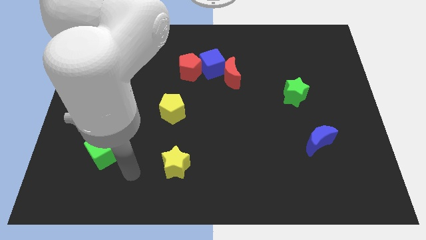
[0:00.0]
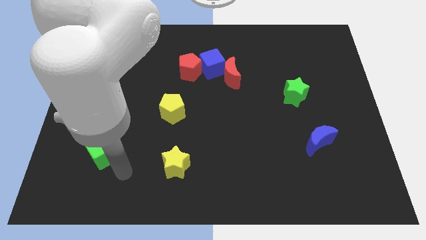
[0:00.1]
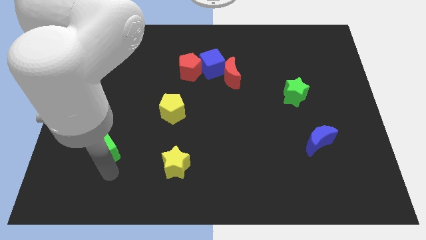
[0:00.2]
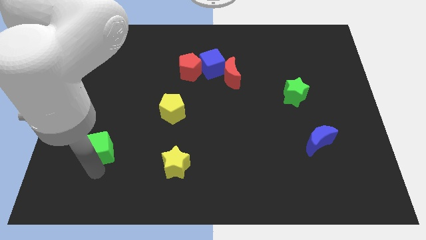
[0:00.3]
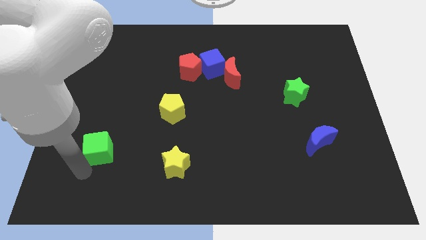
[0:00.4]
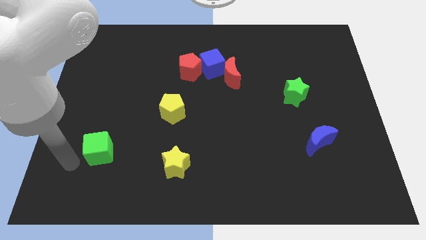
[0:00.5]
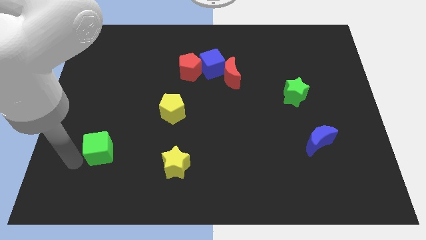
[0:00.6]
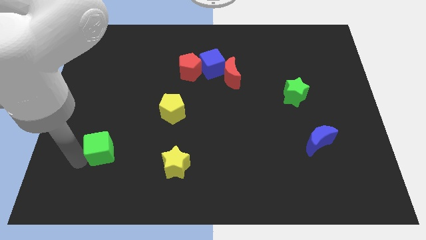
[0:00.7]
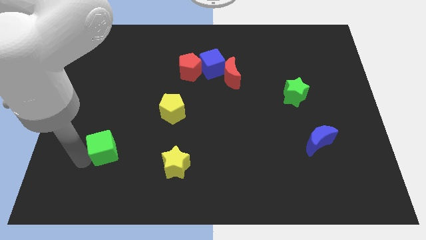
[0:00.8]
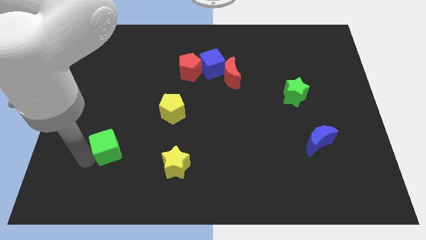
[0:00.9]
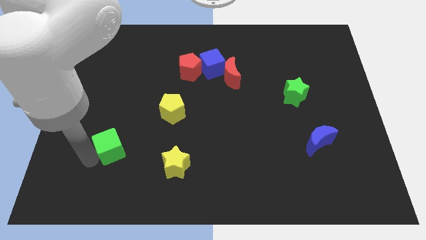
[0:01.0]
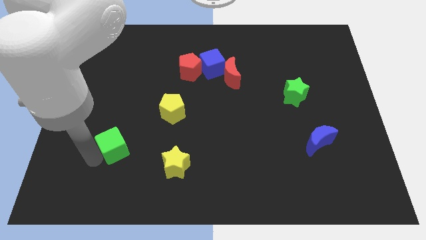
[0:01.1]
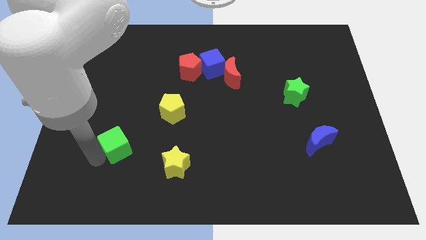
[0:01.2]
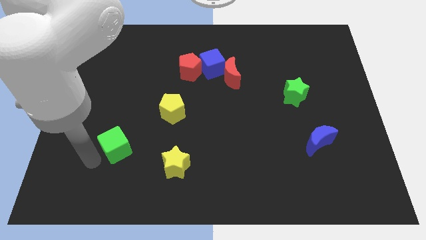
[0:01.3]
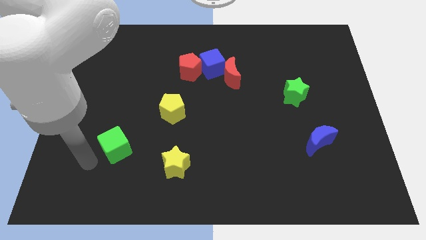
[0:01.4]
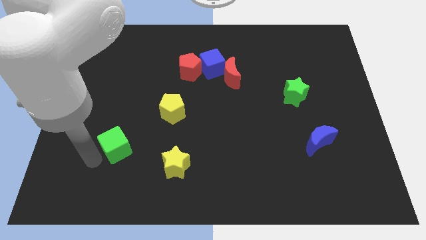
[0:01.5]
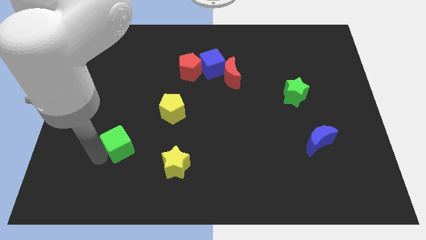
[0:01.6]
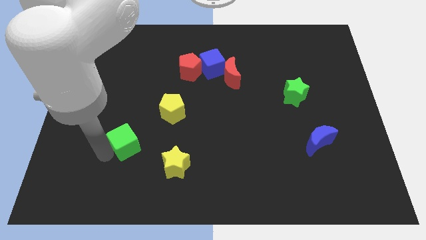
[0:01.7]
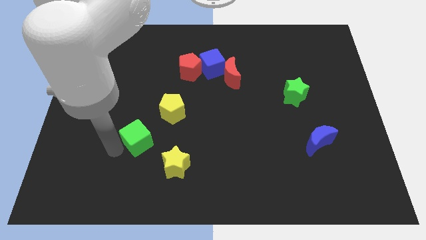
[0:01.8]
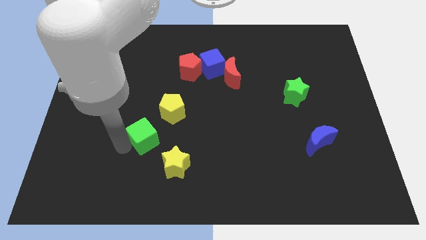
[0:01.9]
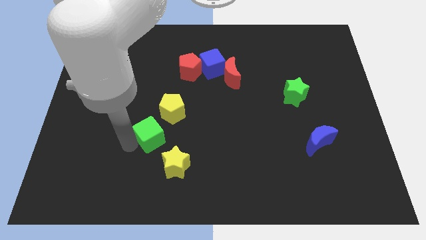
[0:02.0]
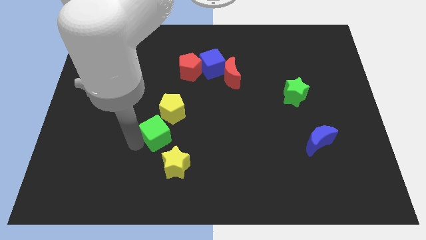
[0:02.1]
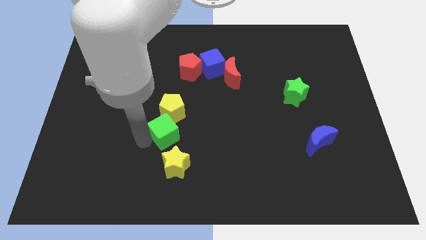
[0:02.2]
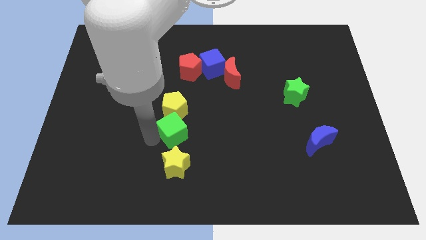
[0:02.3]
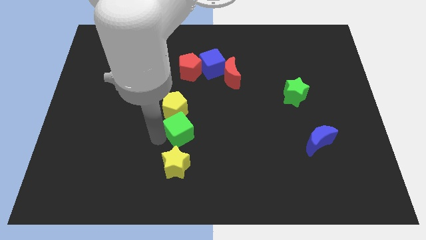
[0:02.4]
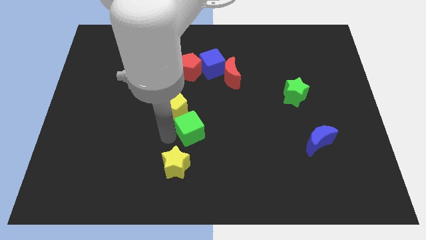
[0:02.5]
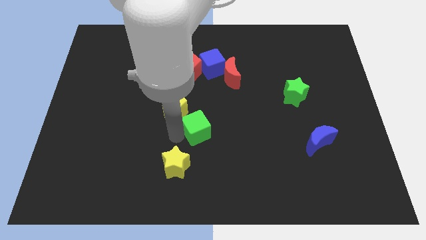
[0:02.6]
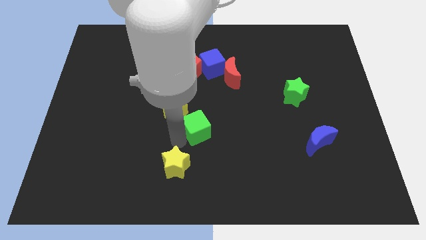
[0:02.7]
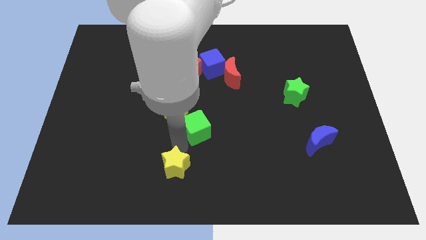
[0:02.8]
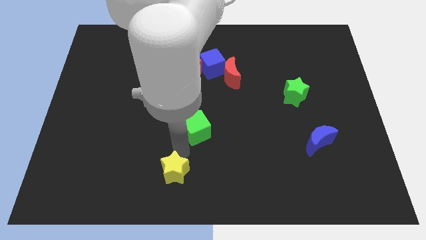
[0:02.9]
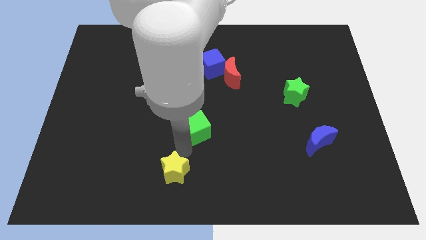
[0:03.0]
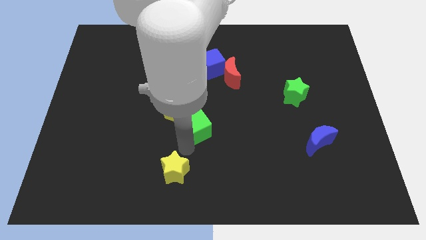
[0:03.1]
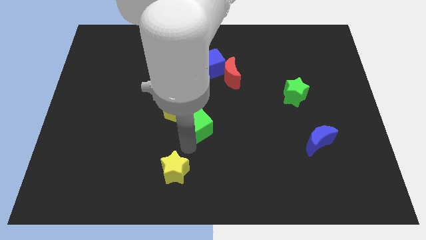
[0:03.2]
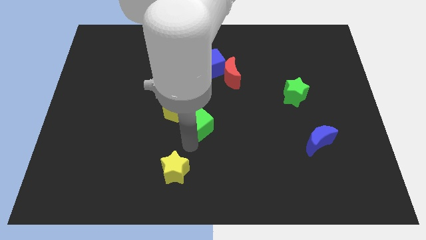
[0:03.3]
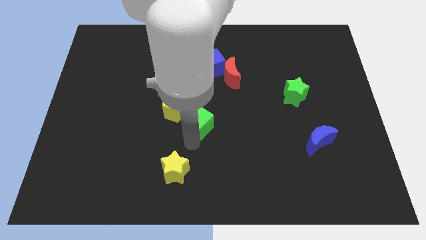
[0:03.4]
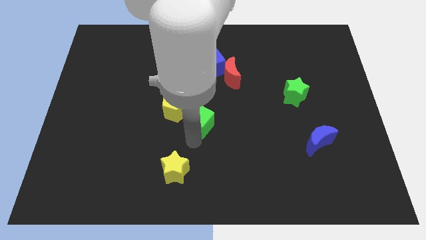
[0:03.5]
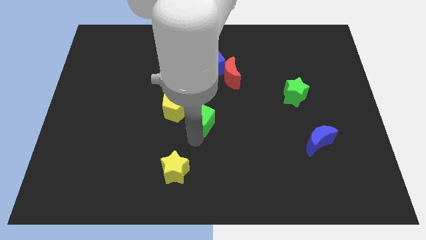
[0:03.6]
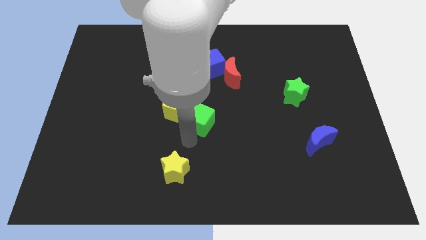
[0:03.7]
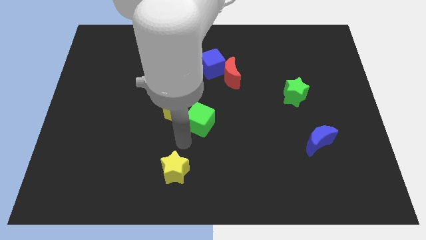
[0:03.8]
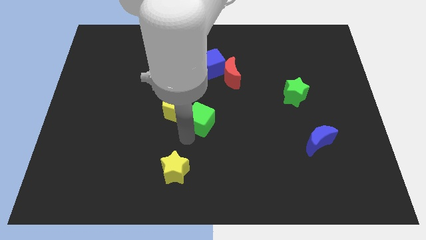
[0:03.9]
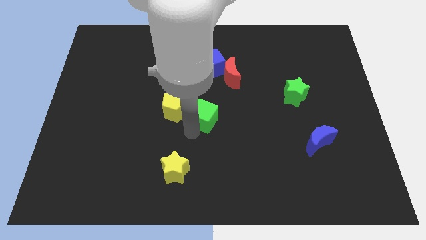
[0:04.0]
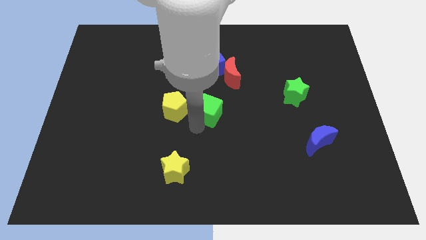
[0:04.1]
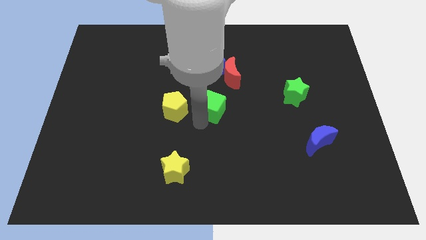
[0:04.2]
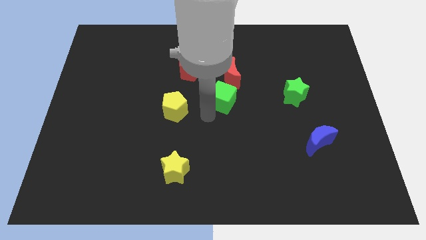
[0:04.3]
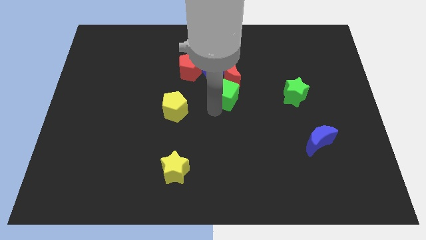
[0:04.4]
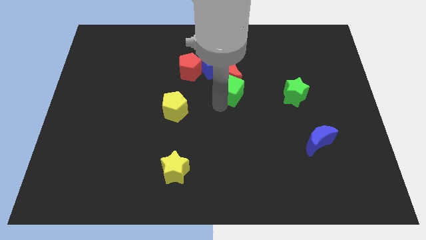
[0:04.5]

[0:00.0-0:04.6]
put the green cube close to the red moon

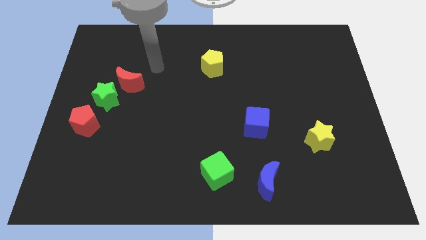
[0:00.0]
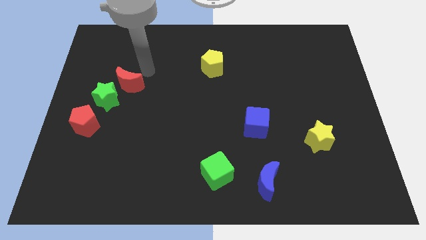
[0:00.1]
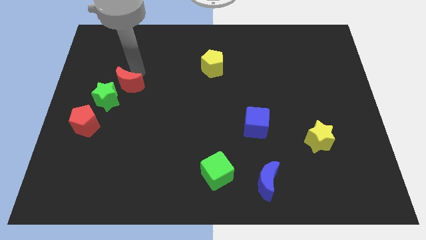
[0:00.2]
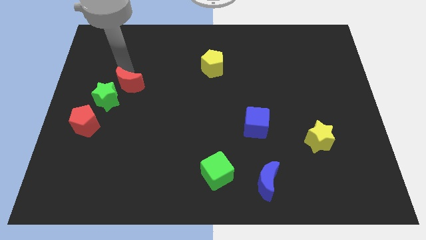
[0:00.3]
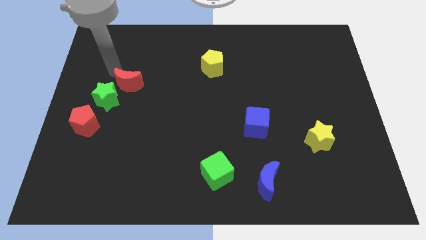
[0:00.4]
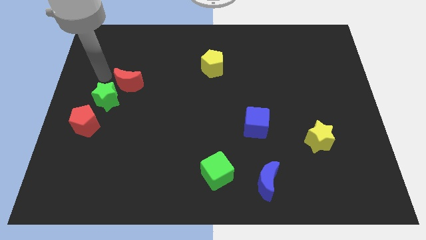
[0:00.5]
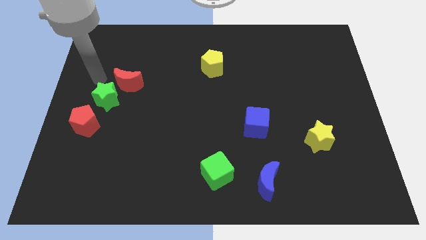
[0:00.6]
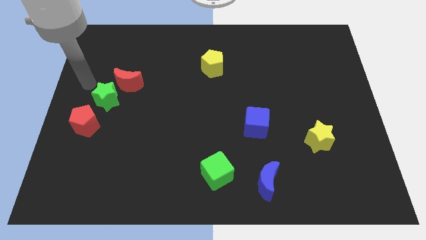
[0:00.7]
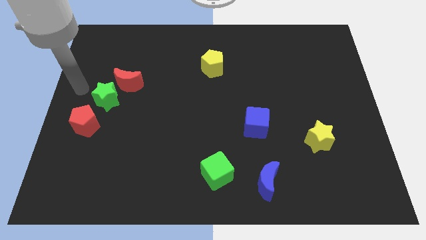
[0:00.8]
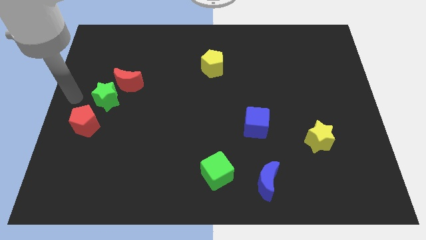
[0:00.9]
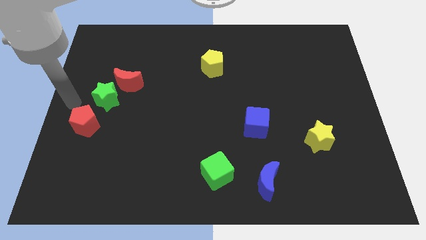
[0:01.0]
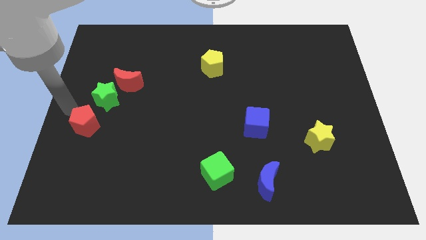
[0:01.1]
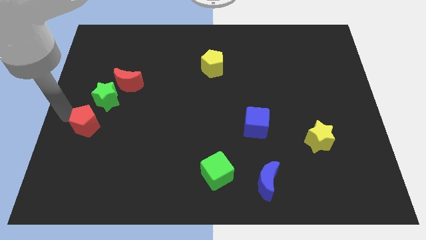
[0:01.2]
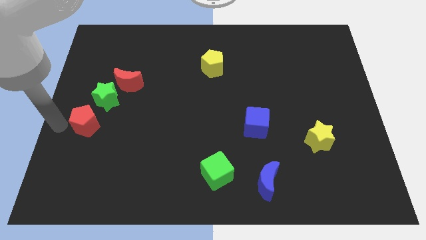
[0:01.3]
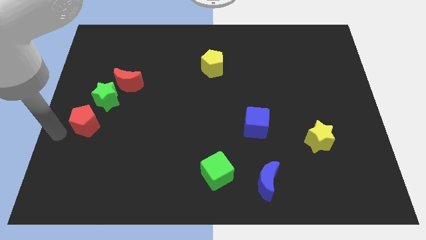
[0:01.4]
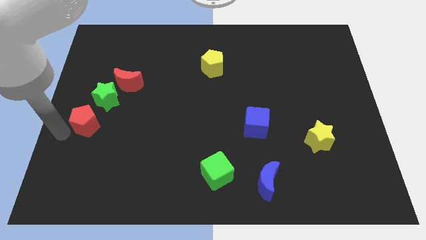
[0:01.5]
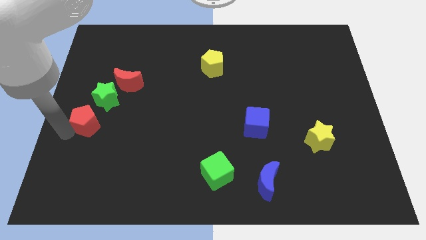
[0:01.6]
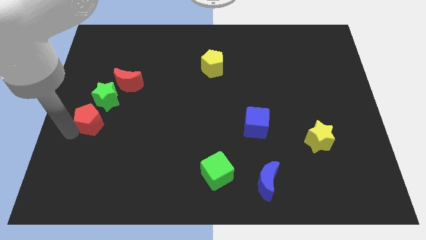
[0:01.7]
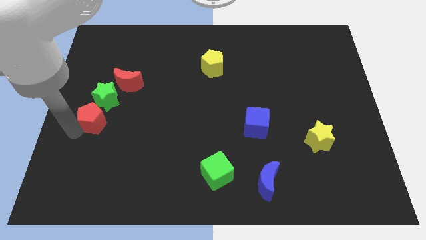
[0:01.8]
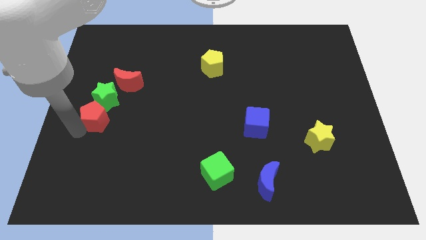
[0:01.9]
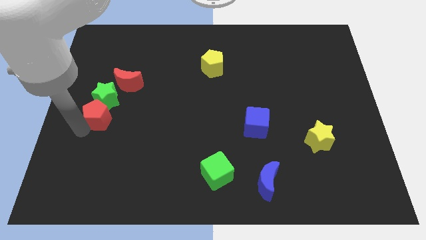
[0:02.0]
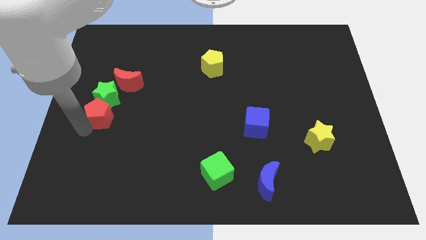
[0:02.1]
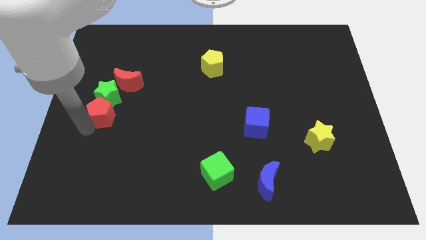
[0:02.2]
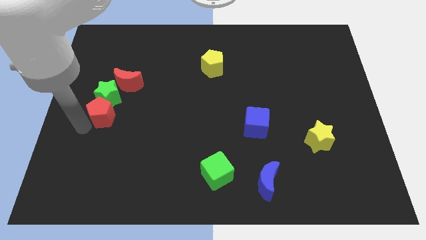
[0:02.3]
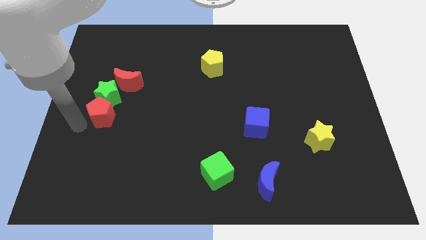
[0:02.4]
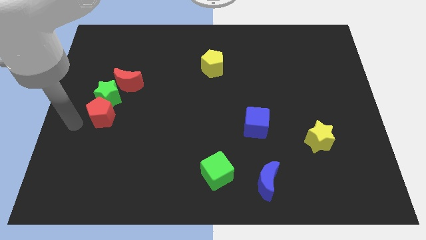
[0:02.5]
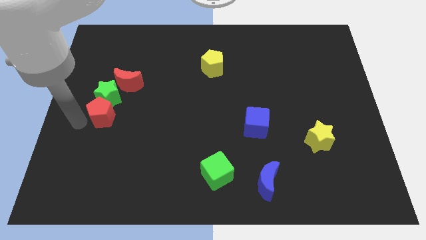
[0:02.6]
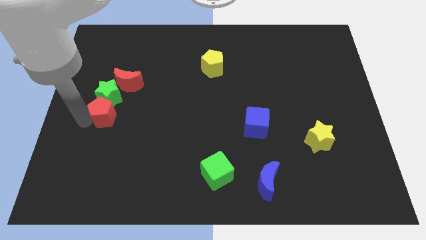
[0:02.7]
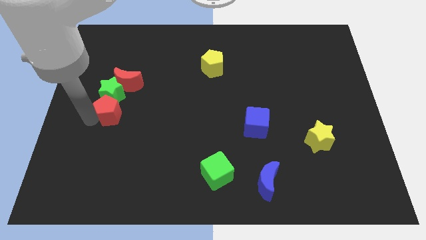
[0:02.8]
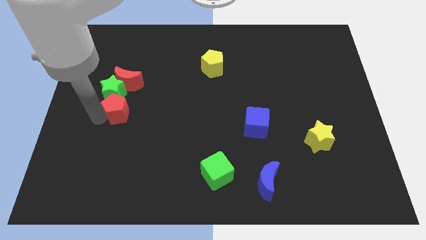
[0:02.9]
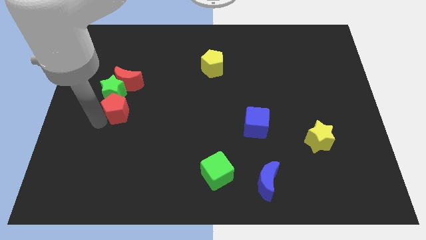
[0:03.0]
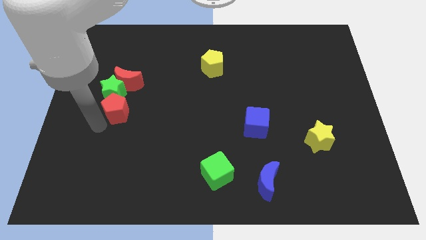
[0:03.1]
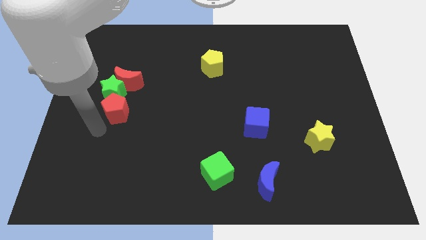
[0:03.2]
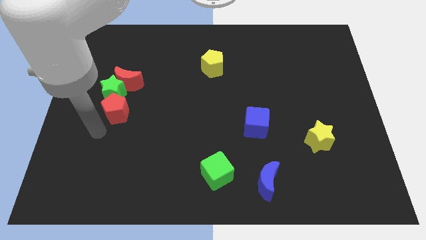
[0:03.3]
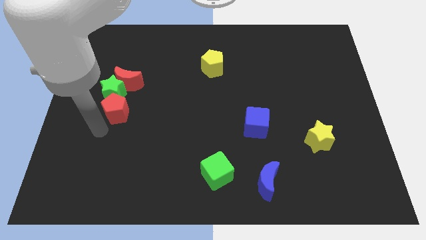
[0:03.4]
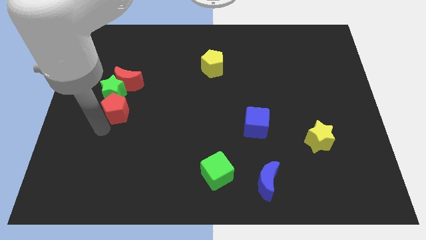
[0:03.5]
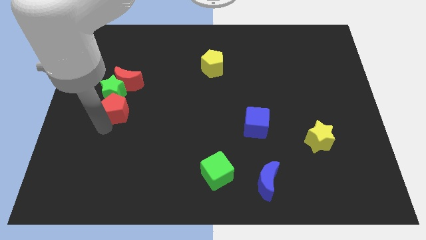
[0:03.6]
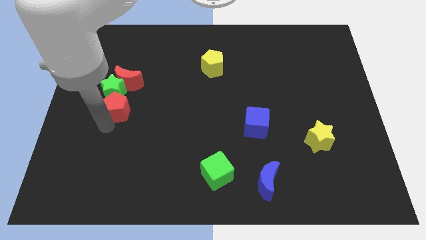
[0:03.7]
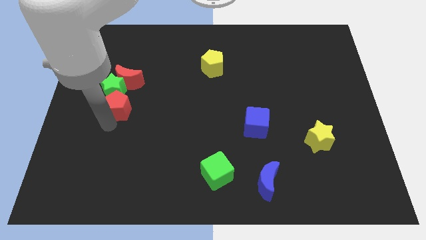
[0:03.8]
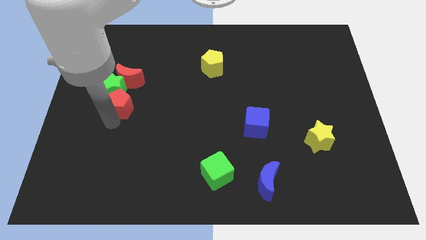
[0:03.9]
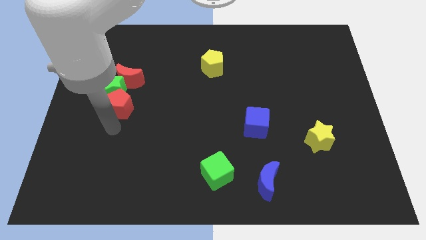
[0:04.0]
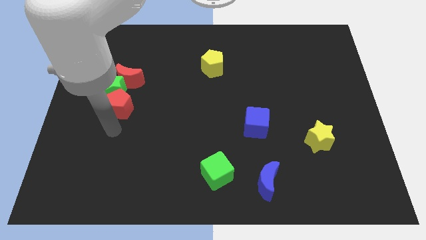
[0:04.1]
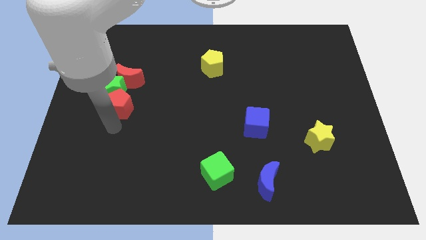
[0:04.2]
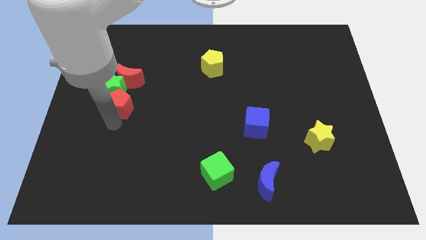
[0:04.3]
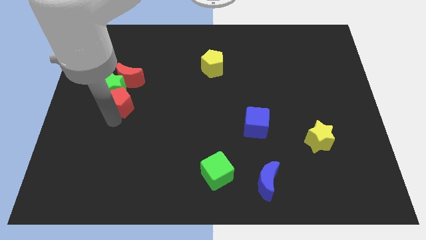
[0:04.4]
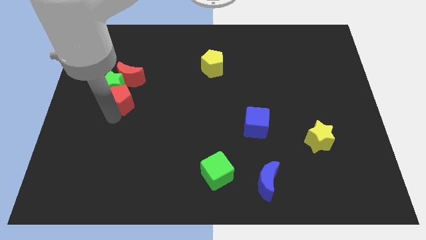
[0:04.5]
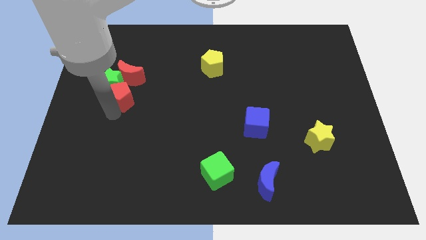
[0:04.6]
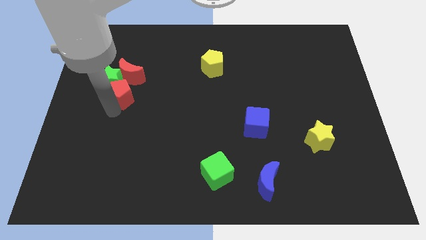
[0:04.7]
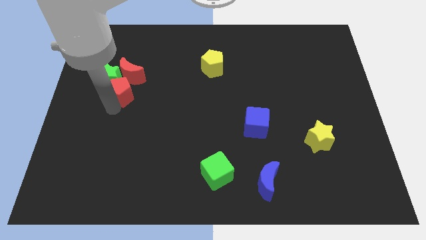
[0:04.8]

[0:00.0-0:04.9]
slide the red pentagon to the red moon
